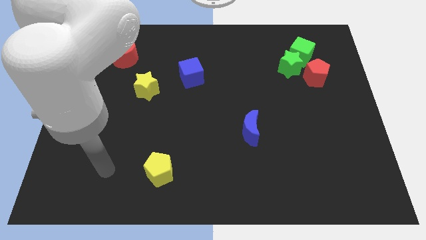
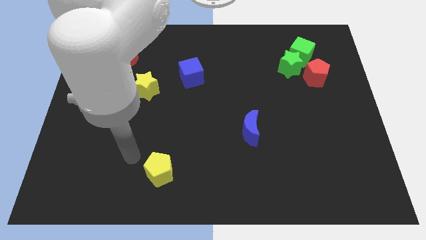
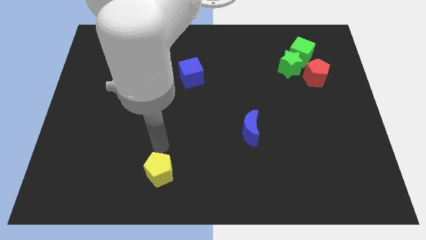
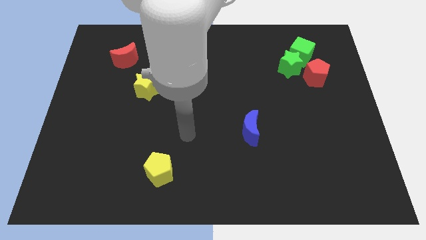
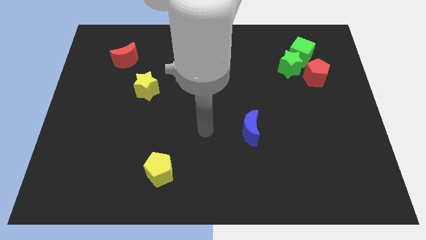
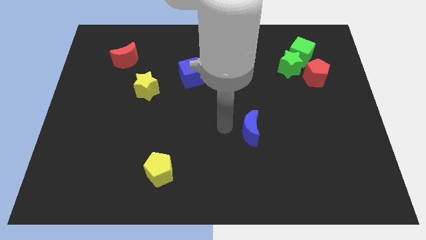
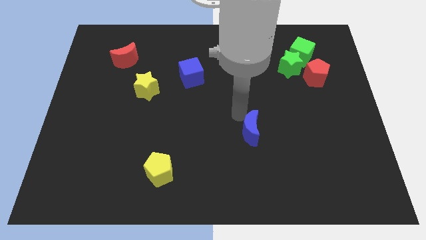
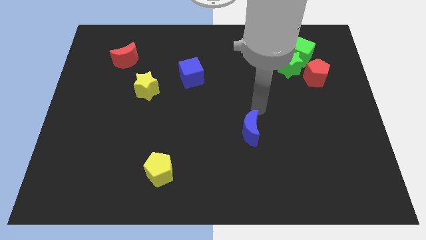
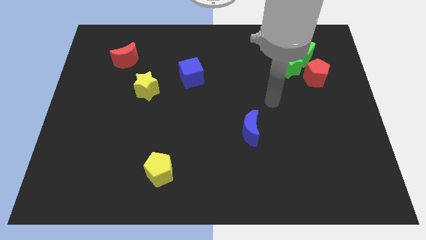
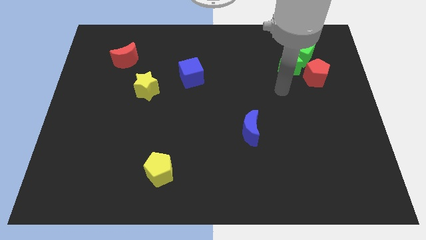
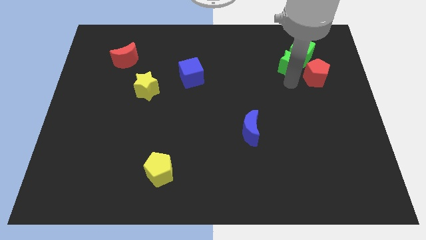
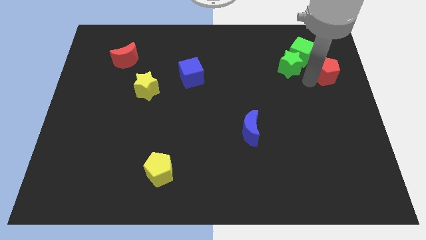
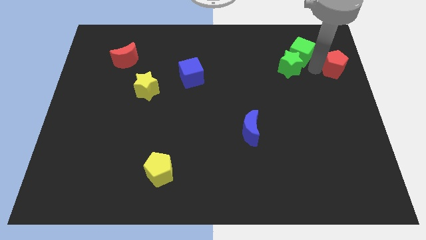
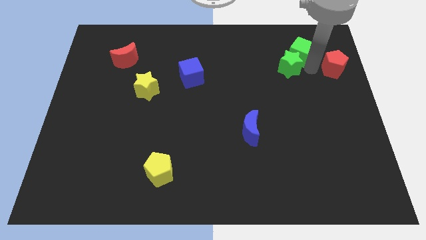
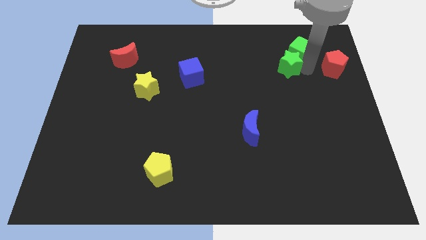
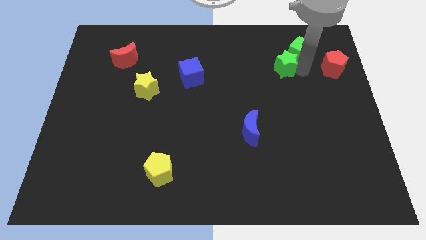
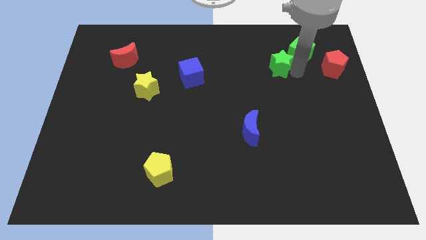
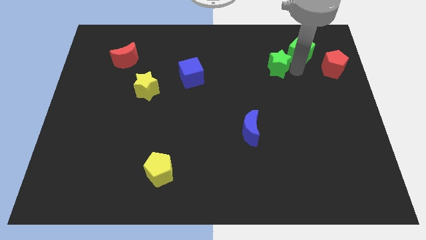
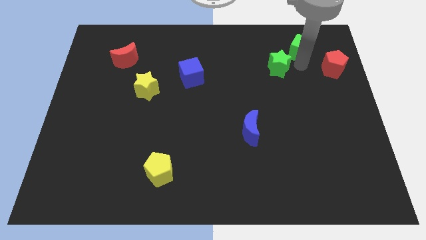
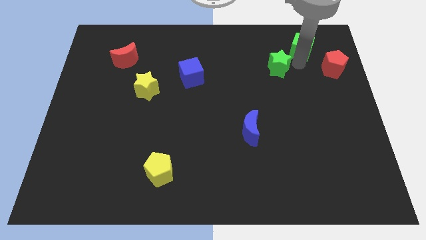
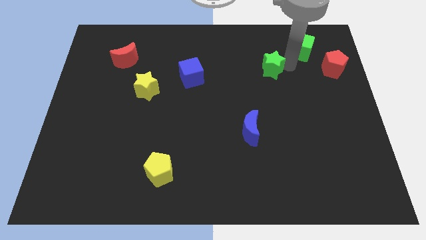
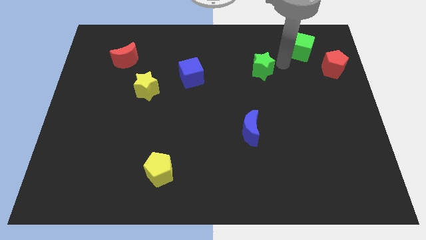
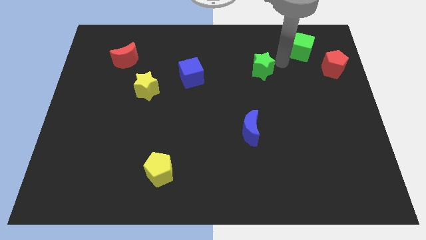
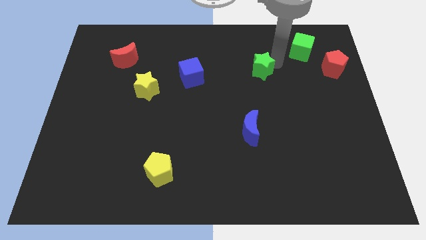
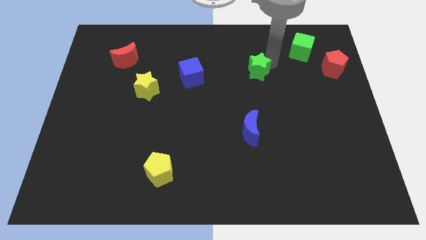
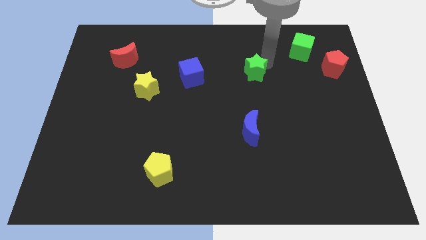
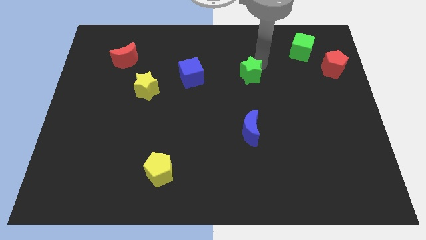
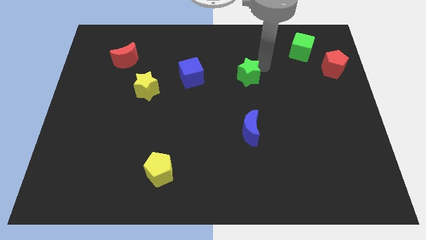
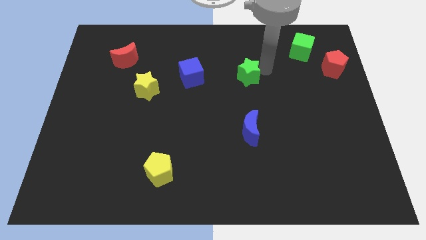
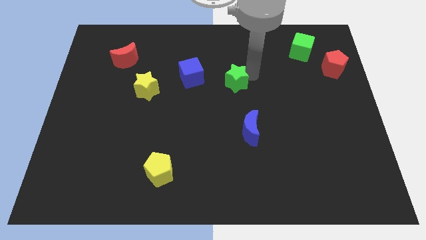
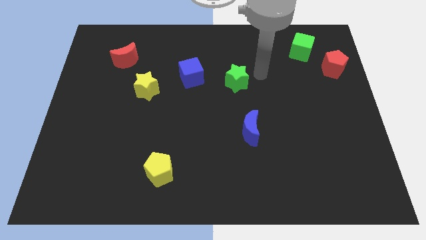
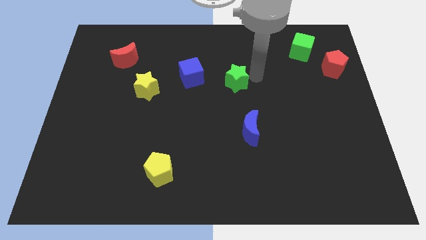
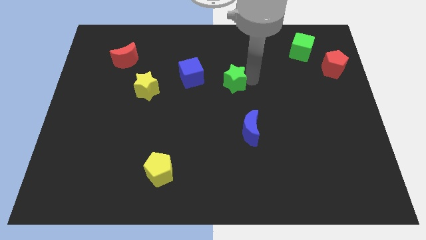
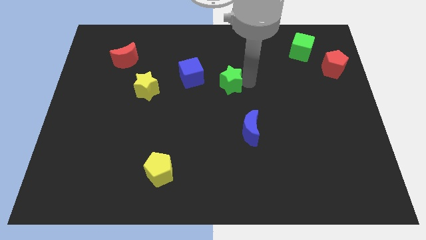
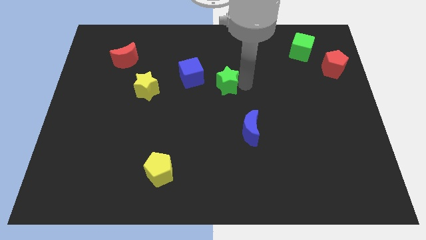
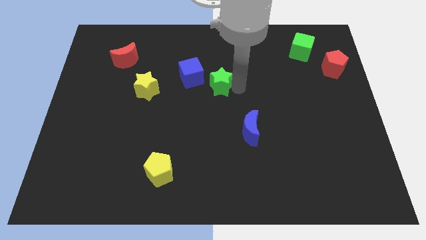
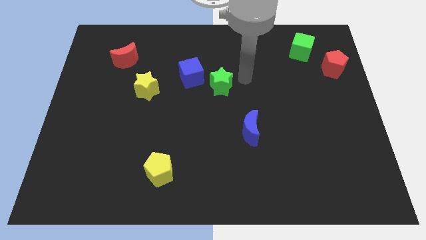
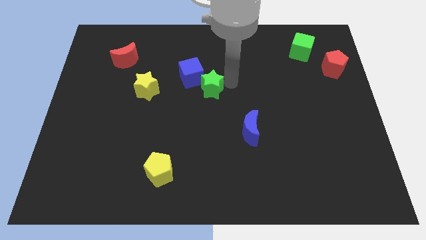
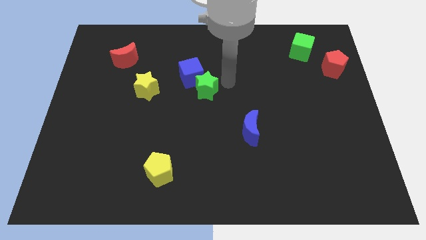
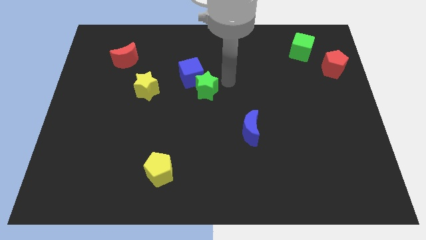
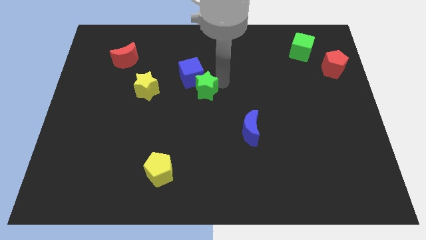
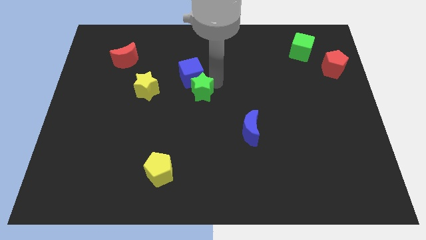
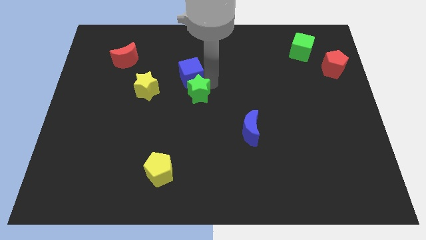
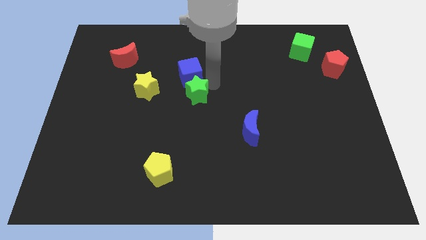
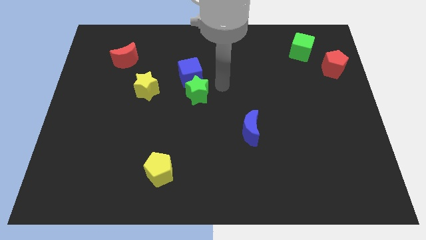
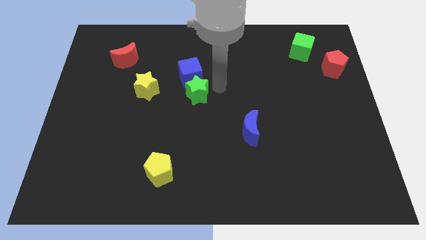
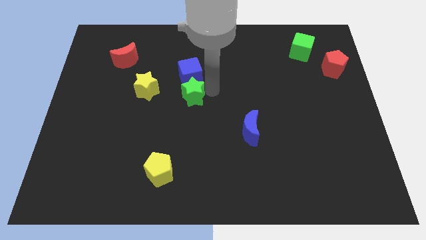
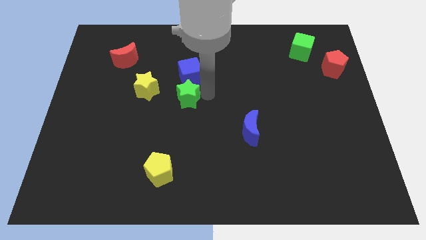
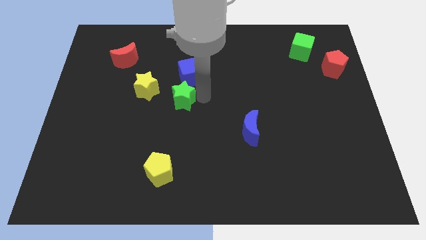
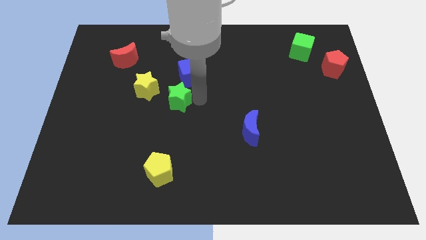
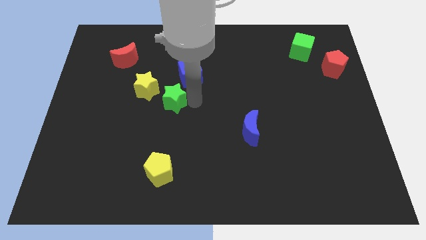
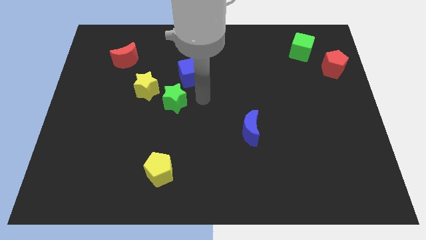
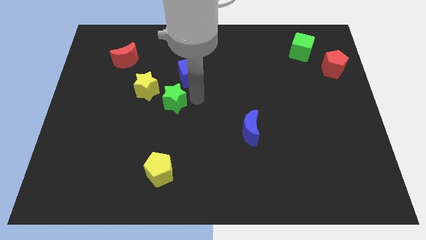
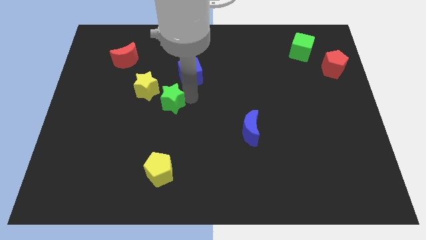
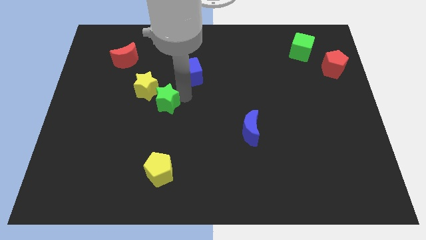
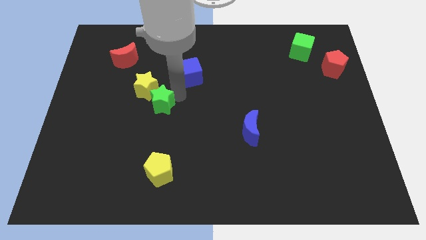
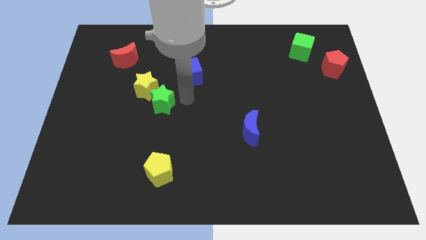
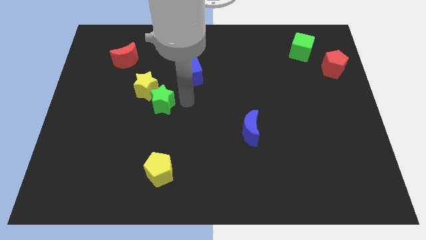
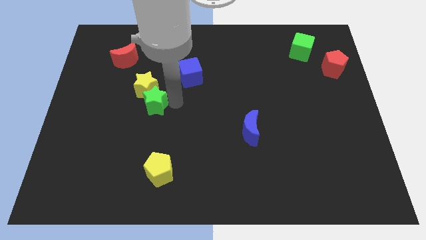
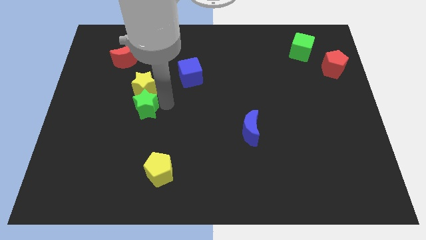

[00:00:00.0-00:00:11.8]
push the green star to the bottom left side of the yellow star

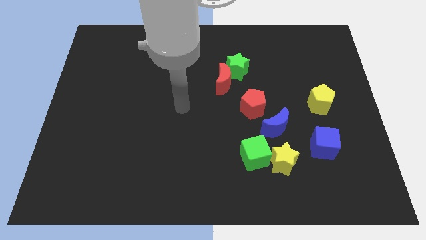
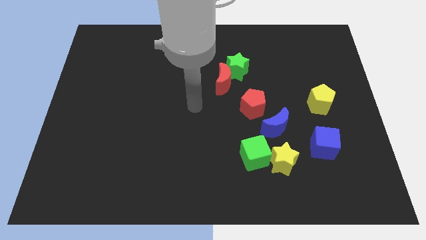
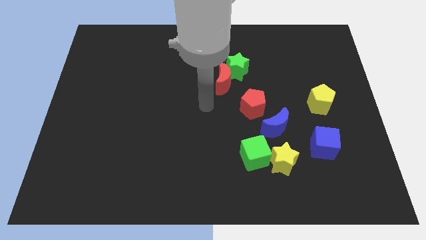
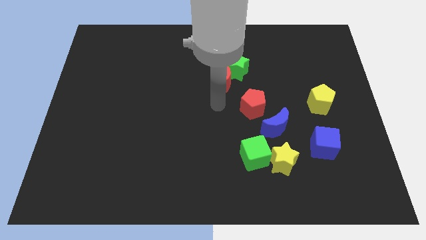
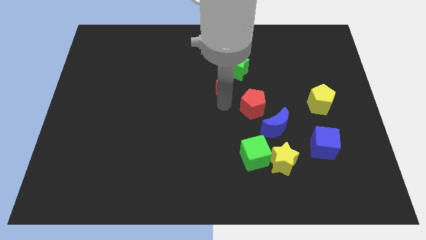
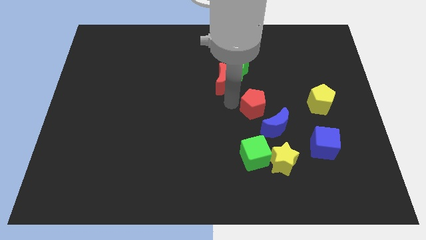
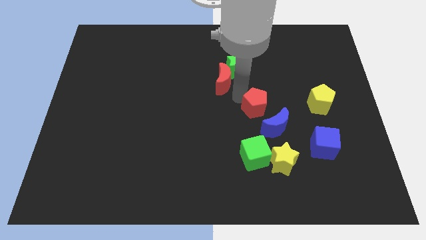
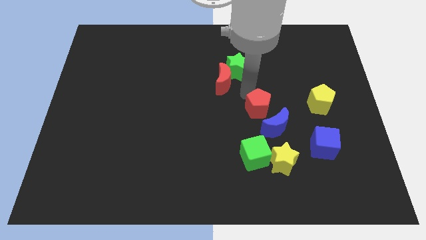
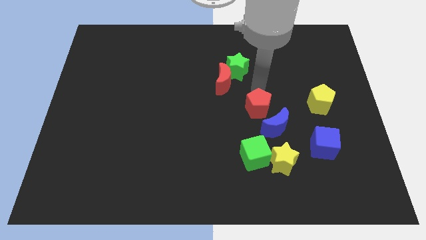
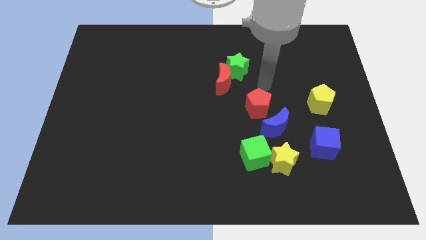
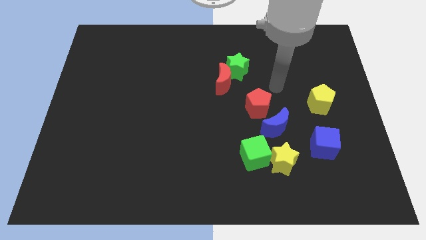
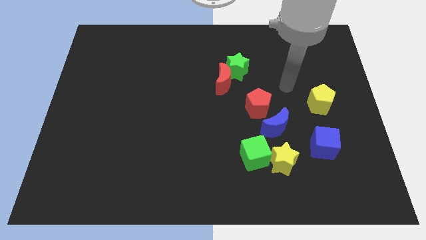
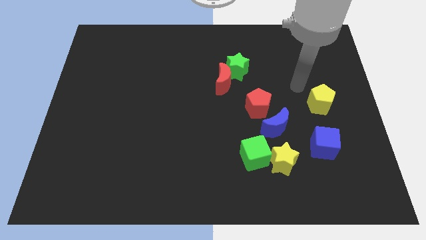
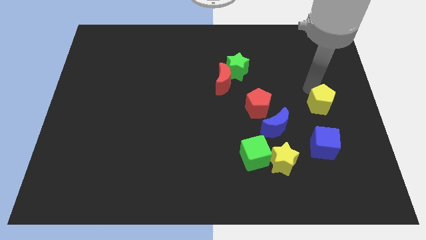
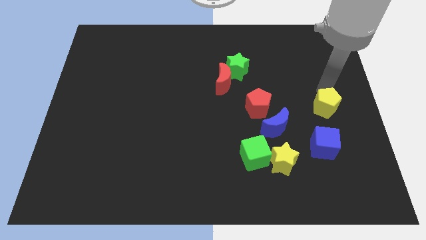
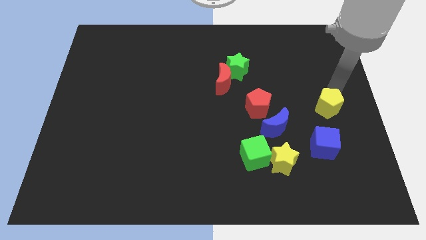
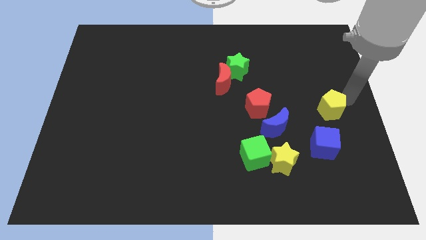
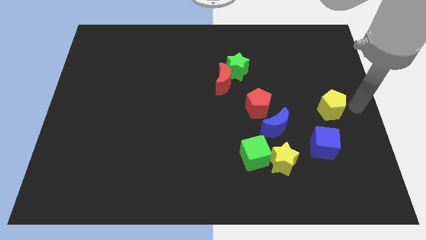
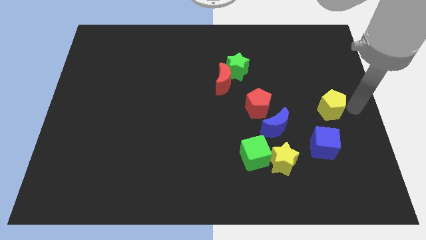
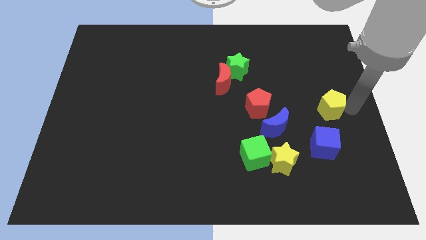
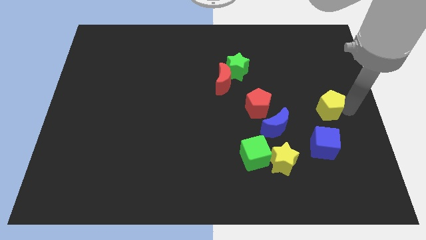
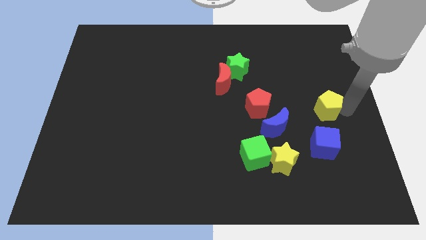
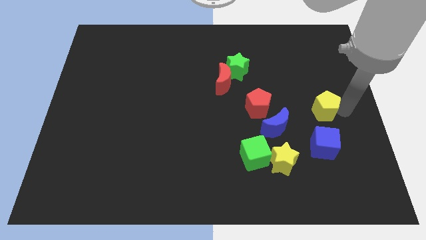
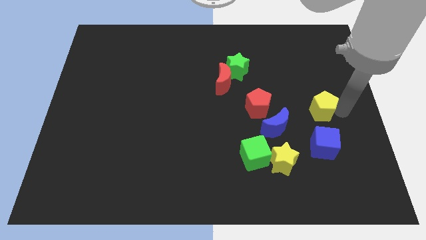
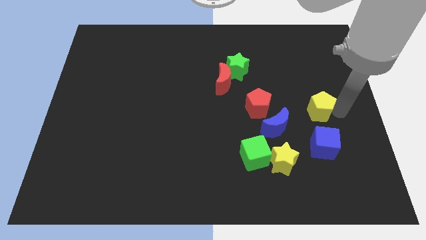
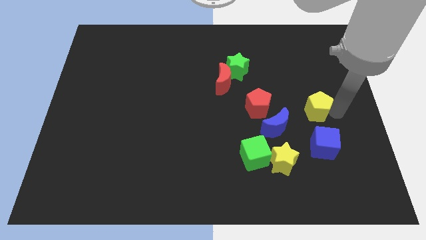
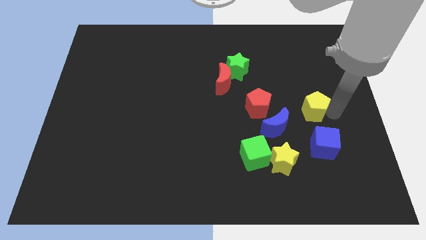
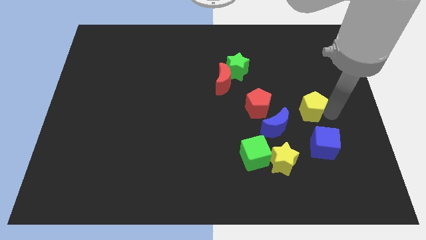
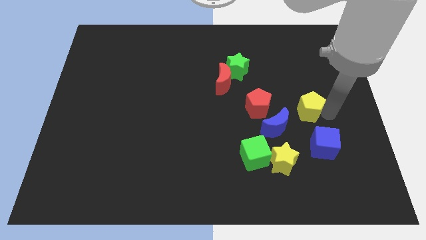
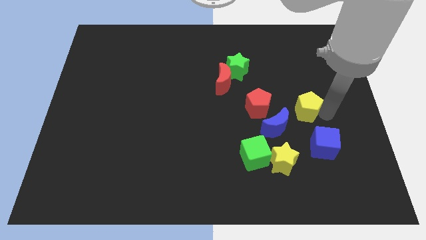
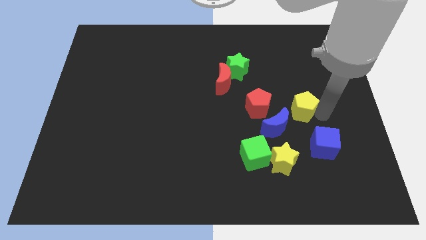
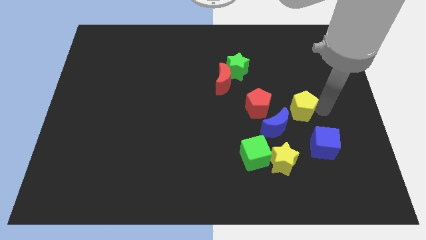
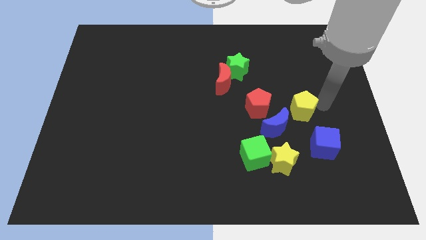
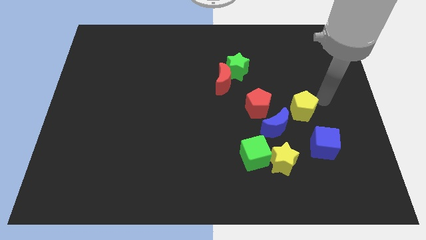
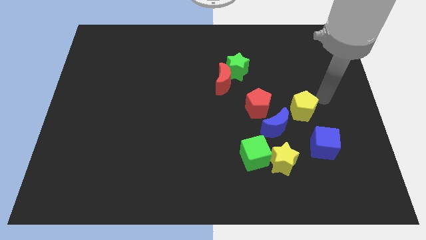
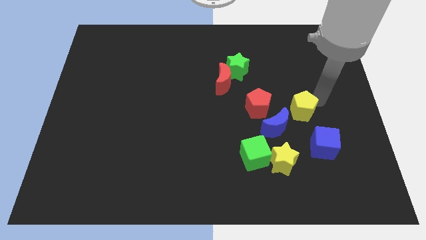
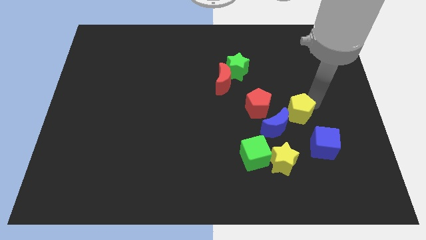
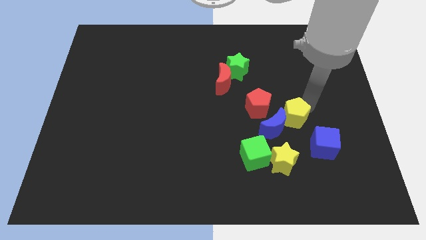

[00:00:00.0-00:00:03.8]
slide the yellow pentagon above the yellow star
